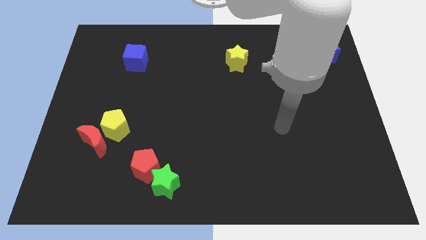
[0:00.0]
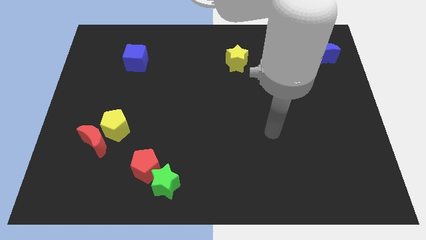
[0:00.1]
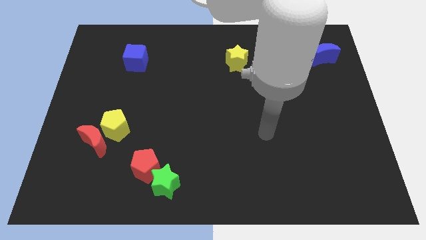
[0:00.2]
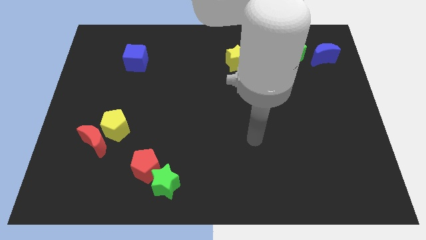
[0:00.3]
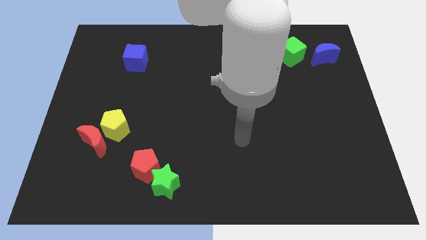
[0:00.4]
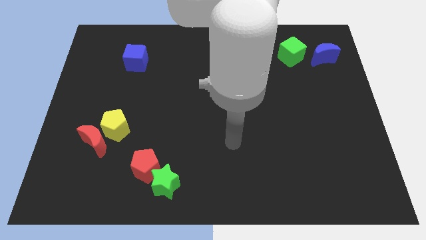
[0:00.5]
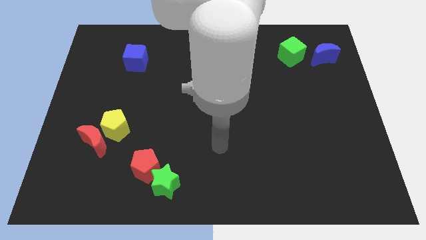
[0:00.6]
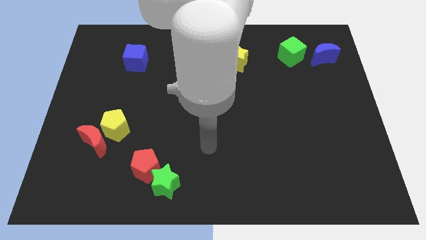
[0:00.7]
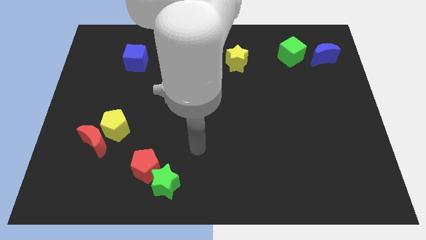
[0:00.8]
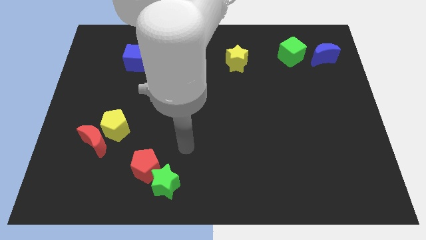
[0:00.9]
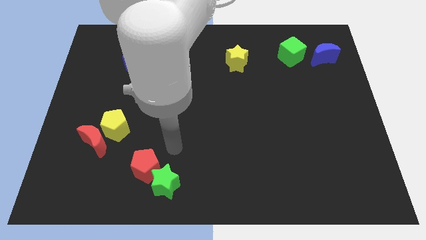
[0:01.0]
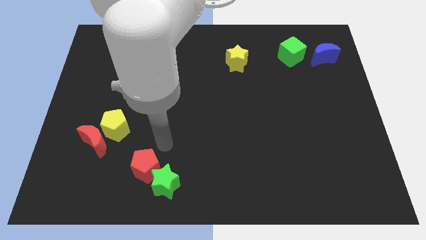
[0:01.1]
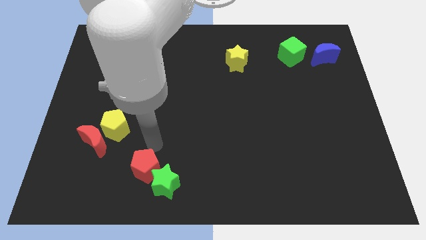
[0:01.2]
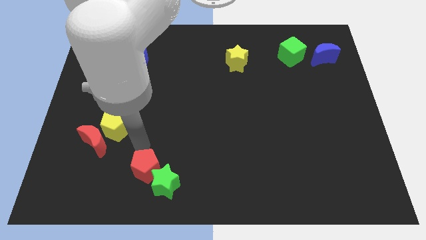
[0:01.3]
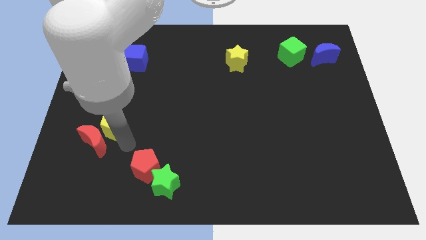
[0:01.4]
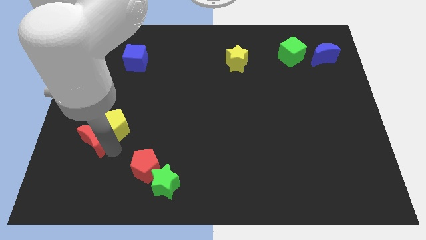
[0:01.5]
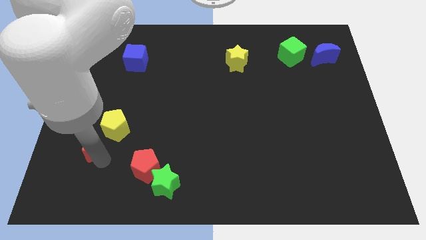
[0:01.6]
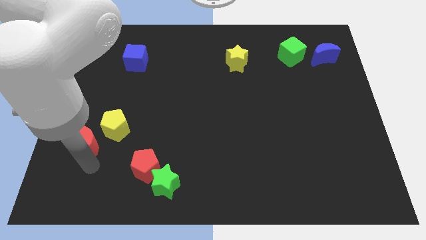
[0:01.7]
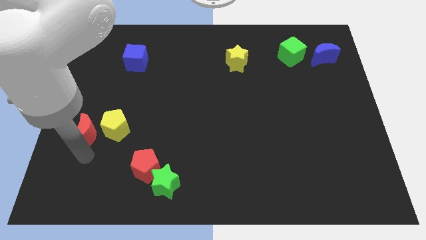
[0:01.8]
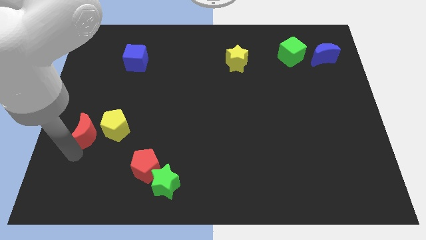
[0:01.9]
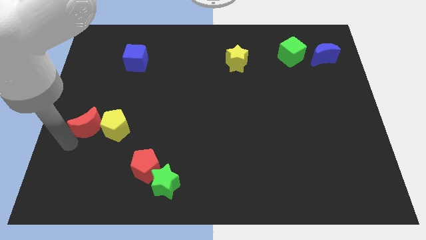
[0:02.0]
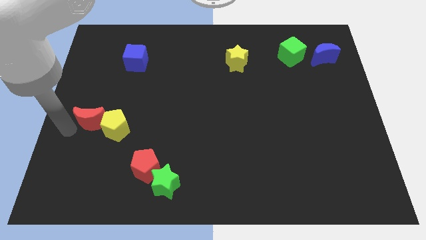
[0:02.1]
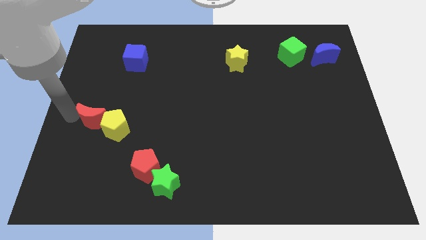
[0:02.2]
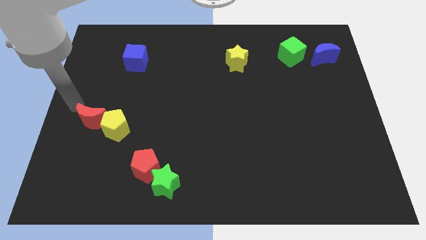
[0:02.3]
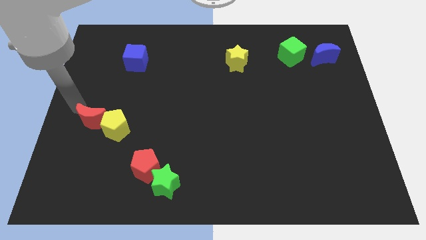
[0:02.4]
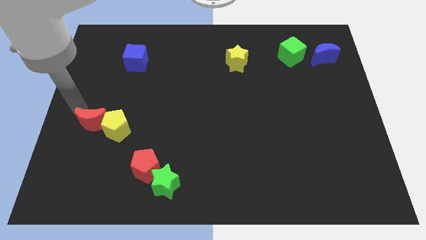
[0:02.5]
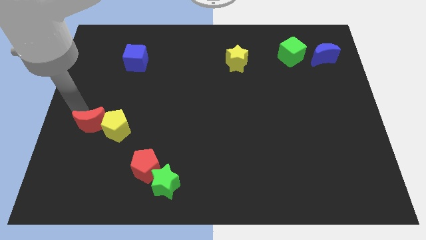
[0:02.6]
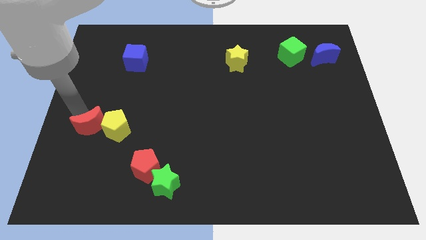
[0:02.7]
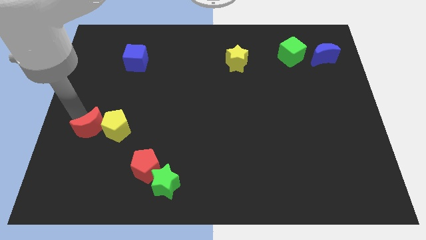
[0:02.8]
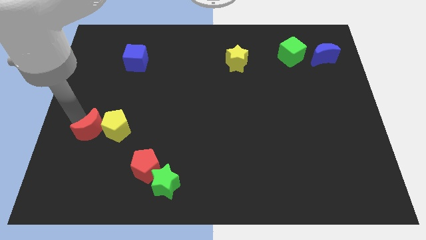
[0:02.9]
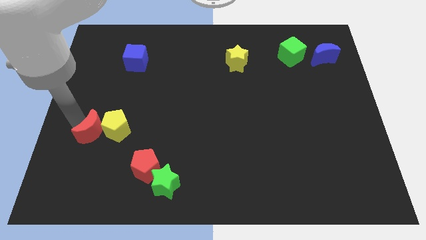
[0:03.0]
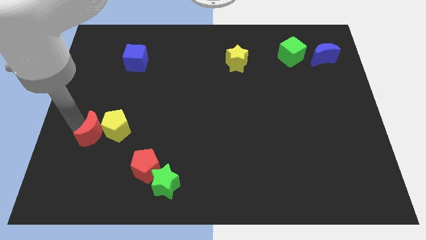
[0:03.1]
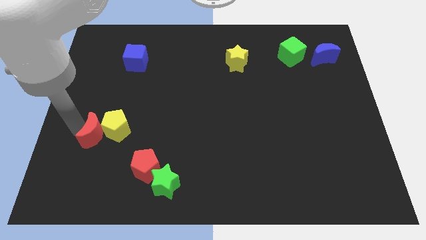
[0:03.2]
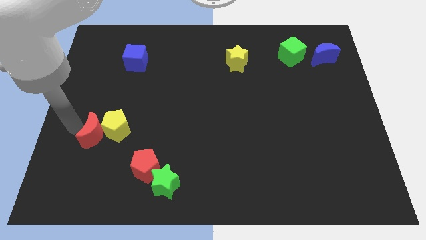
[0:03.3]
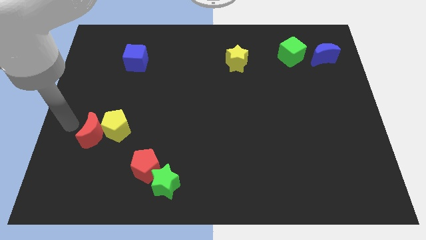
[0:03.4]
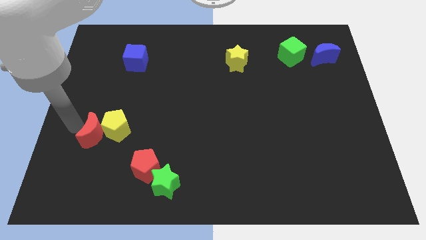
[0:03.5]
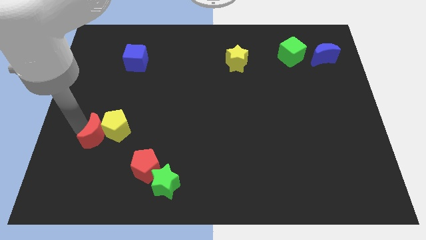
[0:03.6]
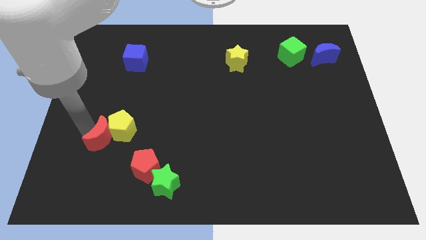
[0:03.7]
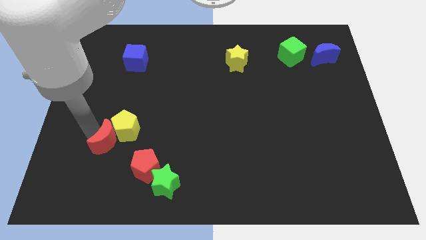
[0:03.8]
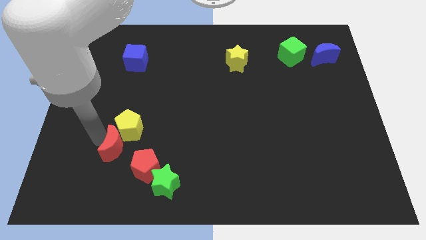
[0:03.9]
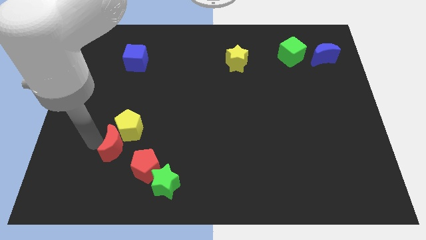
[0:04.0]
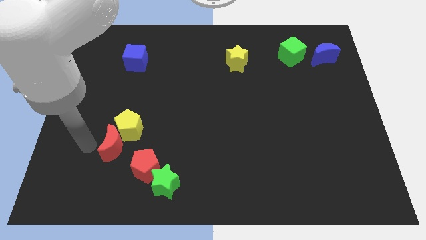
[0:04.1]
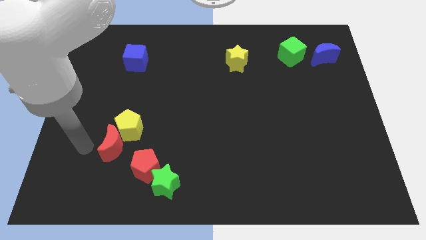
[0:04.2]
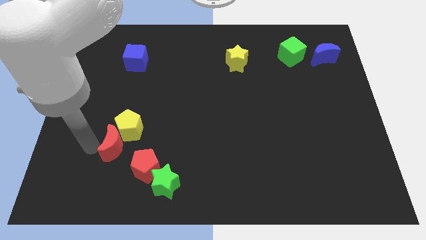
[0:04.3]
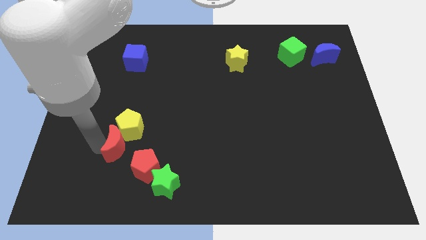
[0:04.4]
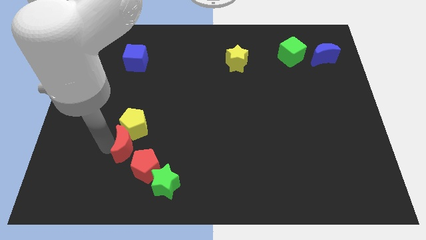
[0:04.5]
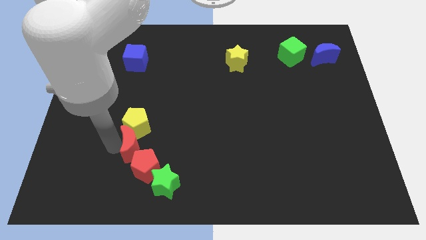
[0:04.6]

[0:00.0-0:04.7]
slide the red moon a little right

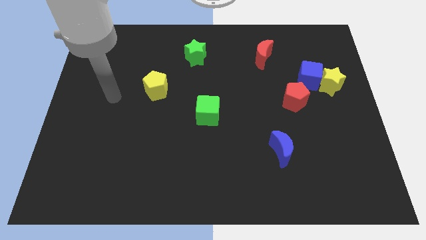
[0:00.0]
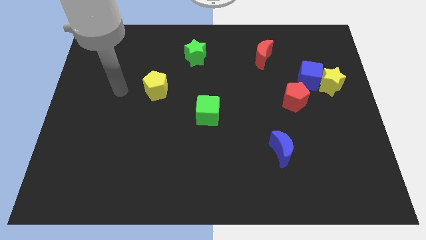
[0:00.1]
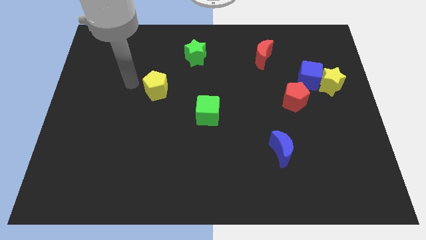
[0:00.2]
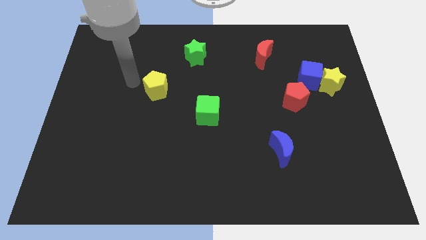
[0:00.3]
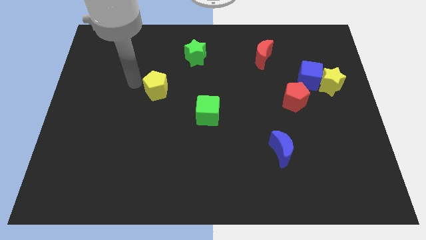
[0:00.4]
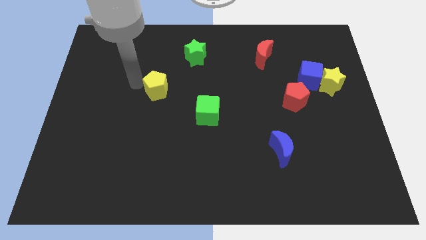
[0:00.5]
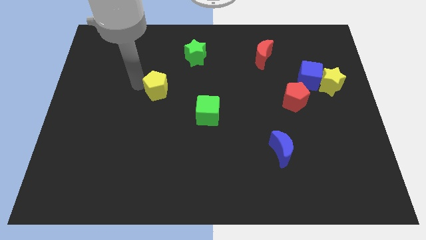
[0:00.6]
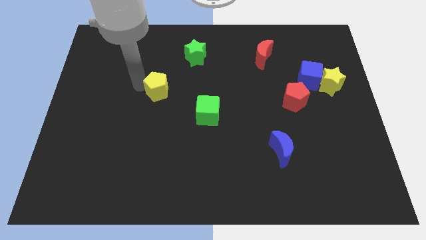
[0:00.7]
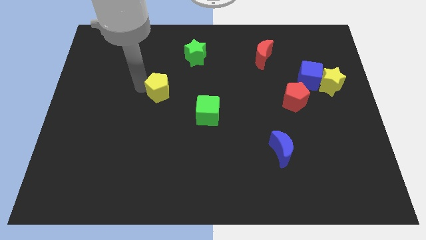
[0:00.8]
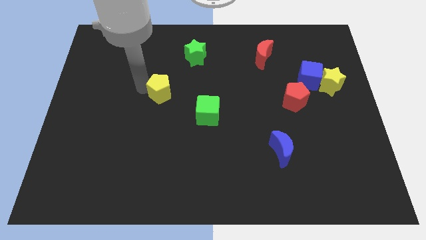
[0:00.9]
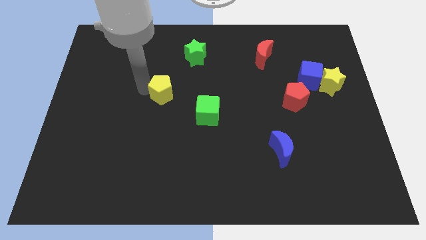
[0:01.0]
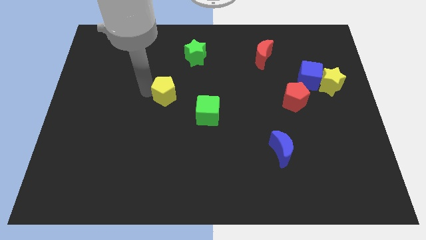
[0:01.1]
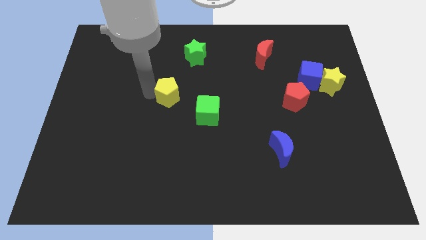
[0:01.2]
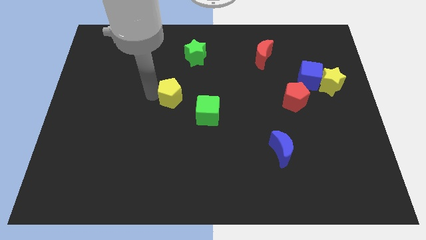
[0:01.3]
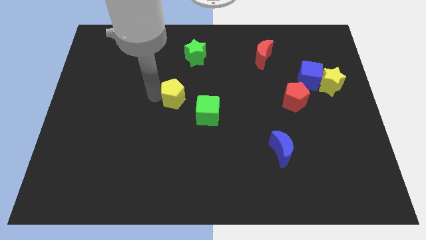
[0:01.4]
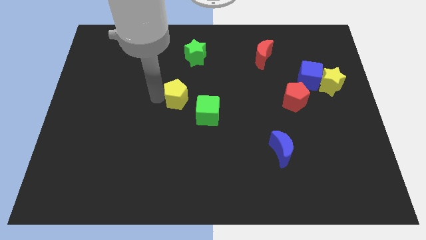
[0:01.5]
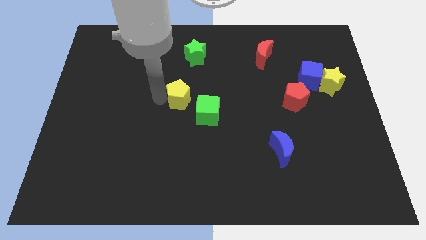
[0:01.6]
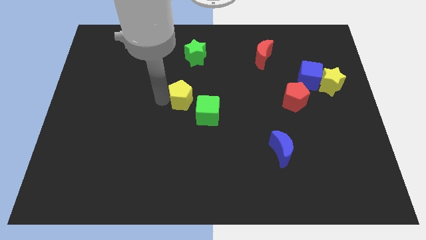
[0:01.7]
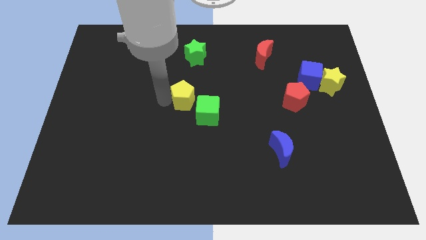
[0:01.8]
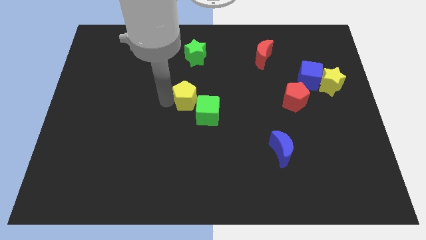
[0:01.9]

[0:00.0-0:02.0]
move the yellow pentagon to the right slightly

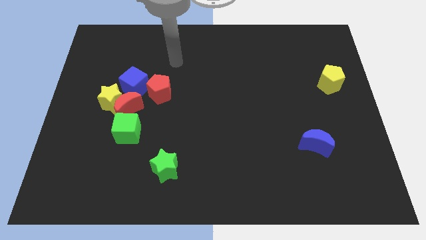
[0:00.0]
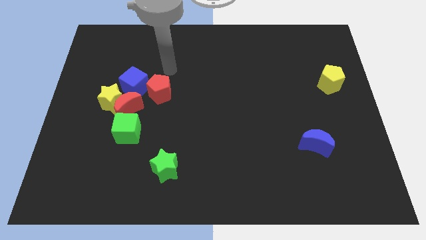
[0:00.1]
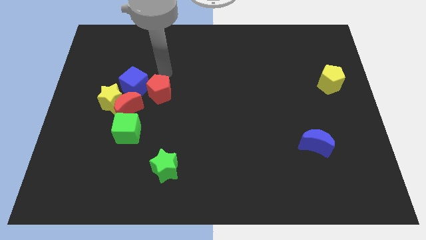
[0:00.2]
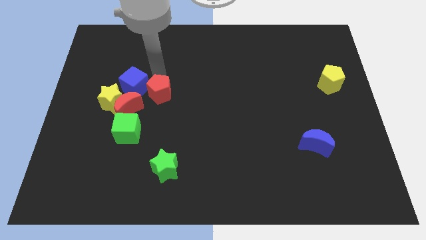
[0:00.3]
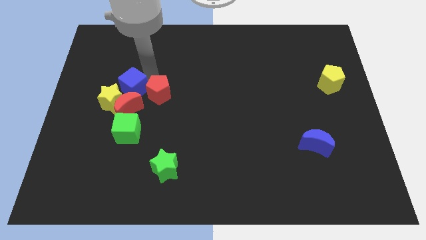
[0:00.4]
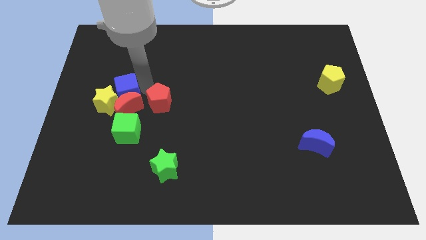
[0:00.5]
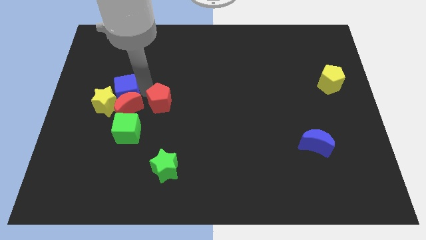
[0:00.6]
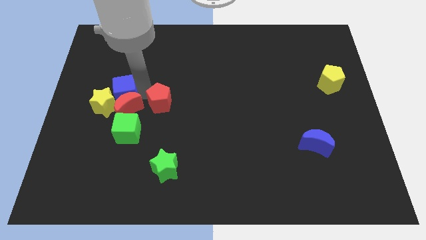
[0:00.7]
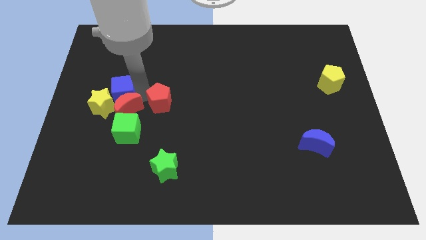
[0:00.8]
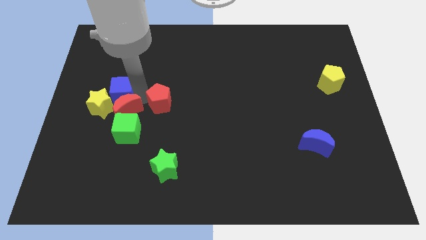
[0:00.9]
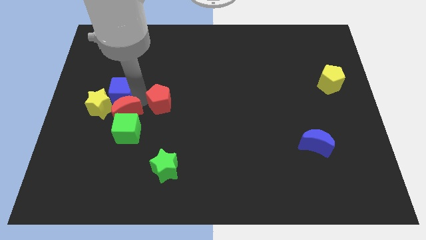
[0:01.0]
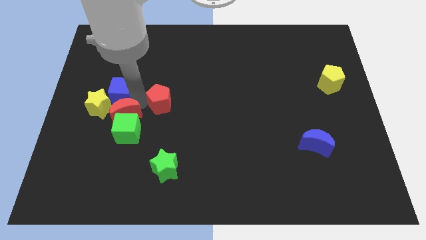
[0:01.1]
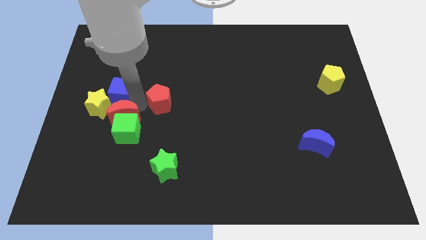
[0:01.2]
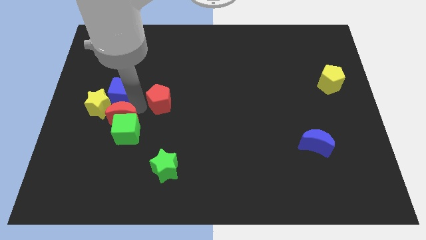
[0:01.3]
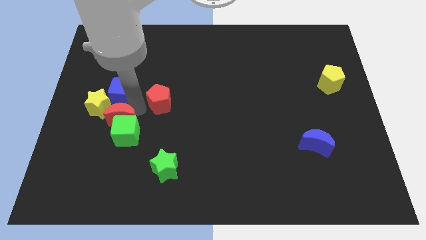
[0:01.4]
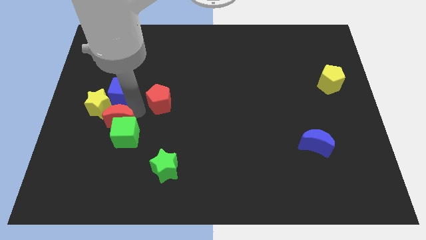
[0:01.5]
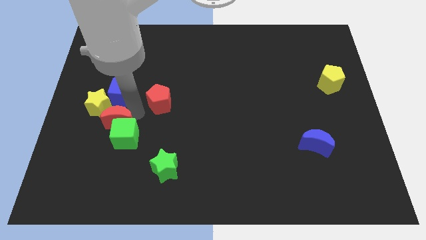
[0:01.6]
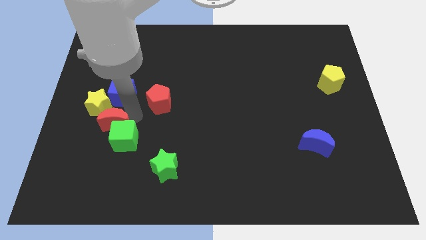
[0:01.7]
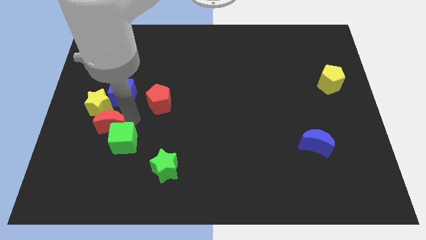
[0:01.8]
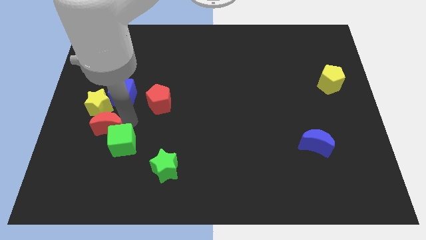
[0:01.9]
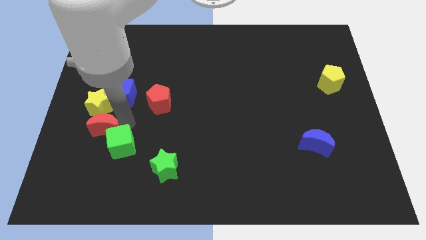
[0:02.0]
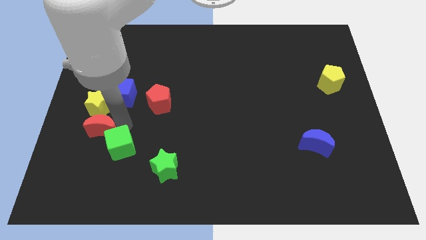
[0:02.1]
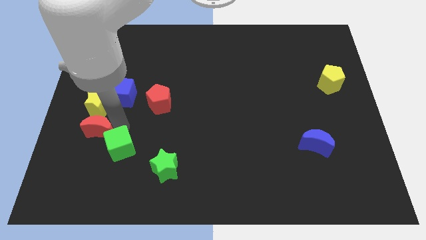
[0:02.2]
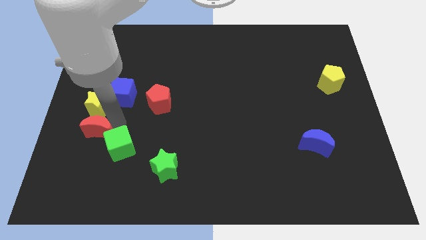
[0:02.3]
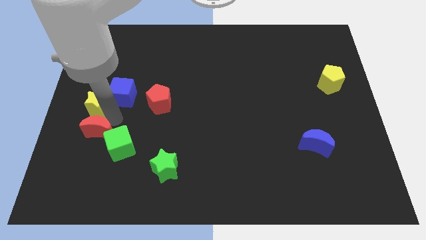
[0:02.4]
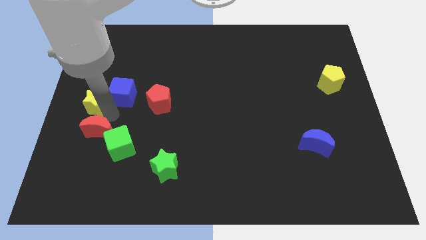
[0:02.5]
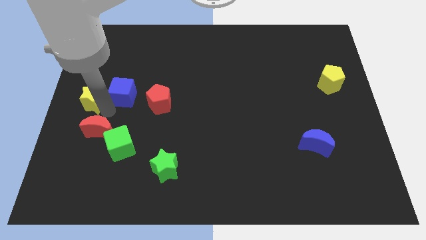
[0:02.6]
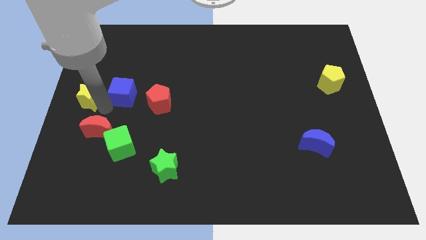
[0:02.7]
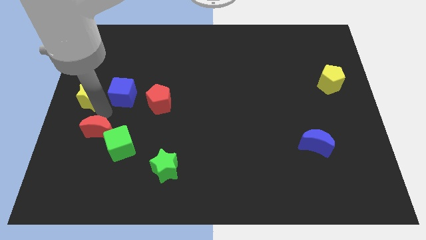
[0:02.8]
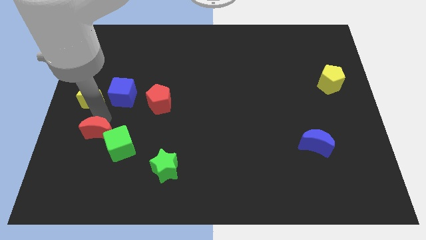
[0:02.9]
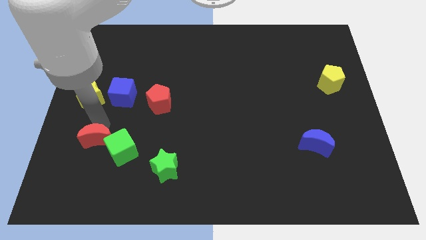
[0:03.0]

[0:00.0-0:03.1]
move the red moon downwards a bit
